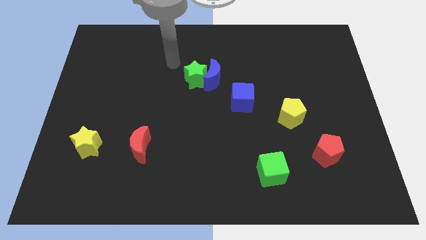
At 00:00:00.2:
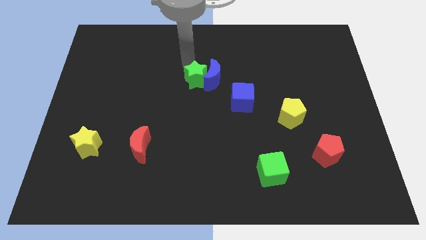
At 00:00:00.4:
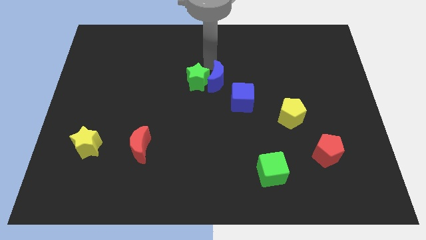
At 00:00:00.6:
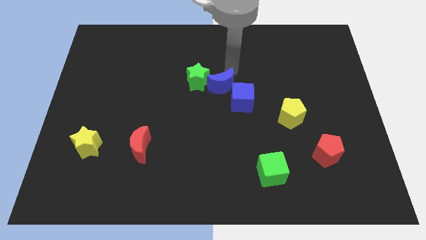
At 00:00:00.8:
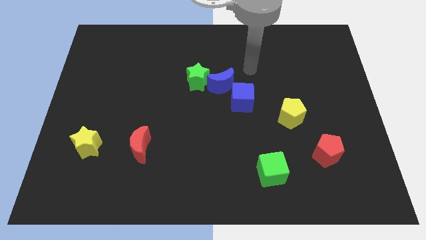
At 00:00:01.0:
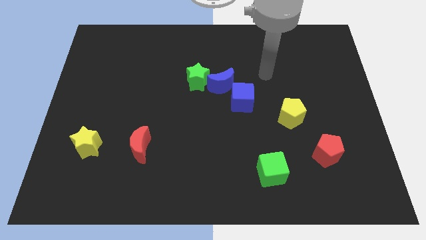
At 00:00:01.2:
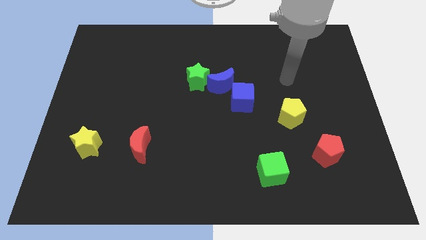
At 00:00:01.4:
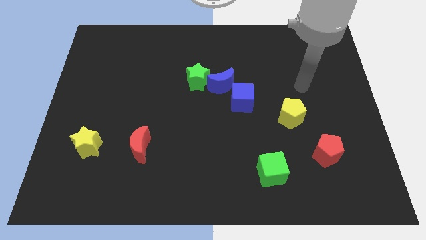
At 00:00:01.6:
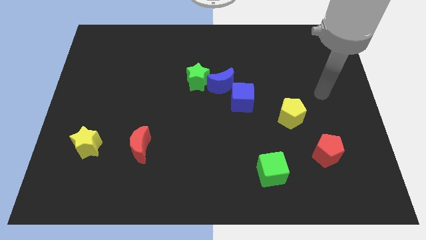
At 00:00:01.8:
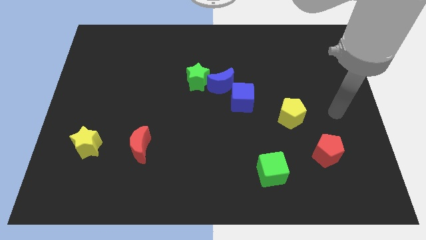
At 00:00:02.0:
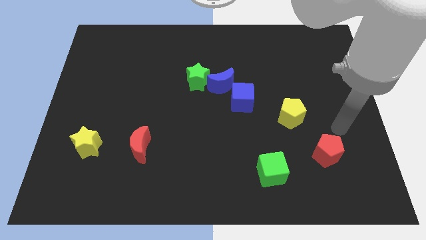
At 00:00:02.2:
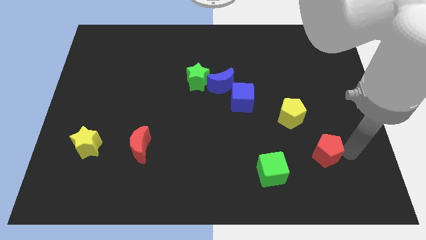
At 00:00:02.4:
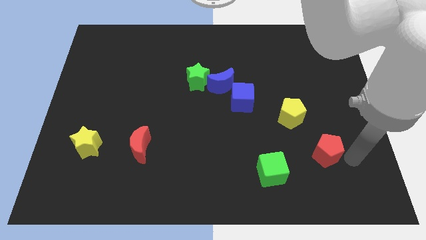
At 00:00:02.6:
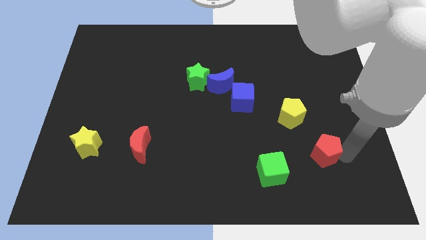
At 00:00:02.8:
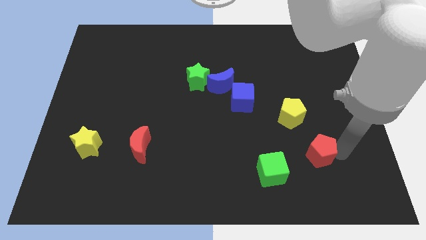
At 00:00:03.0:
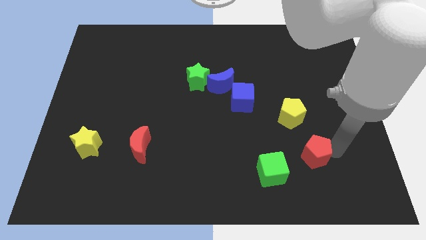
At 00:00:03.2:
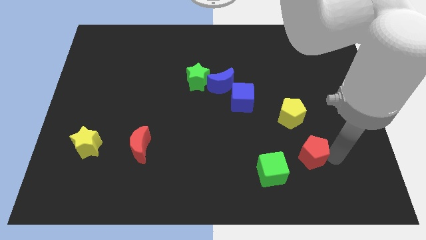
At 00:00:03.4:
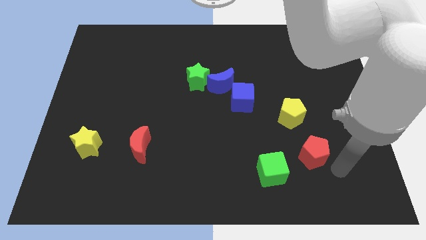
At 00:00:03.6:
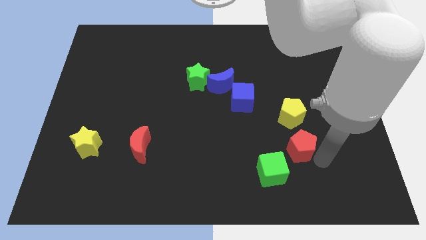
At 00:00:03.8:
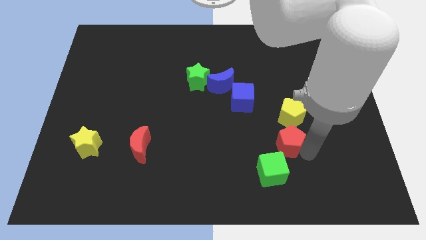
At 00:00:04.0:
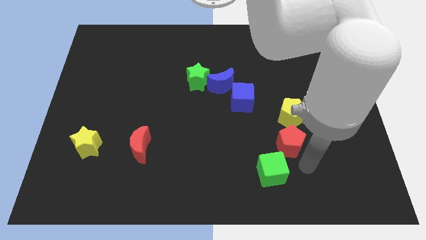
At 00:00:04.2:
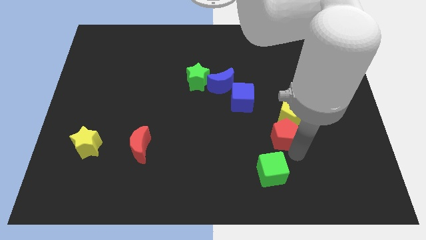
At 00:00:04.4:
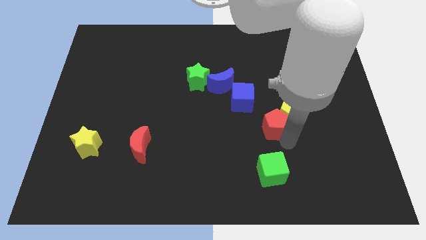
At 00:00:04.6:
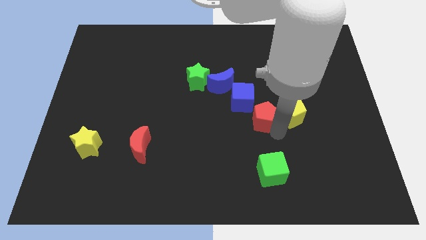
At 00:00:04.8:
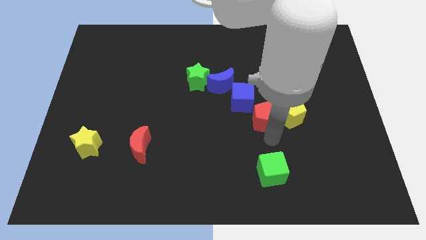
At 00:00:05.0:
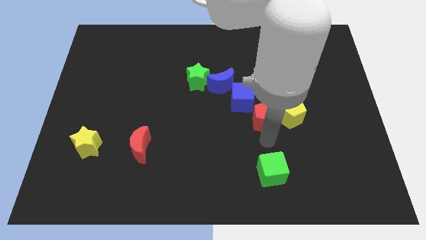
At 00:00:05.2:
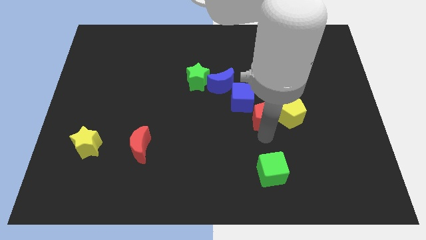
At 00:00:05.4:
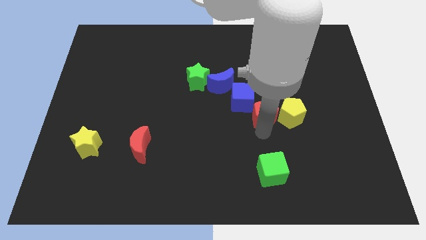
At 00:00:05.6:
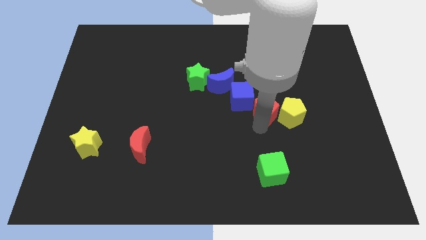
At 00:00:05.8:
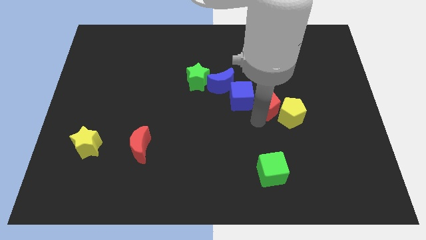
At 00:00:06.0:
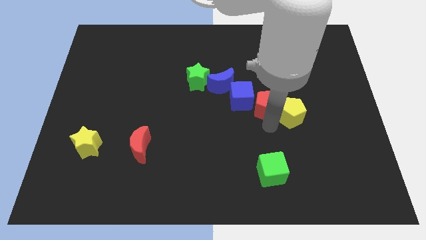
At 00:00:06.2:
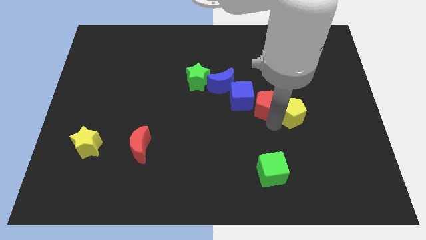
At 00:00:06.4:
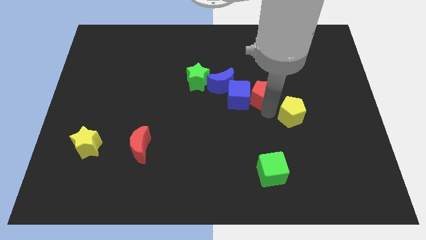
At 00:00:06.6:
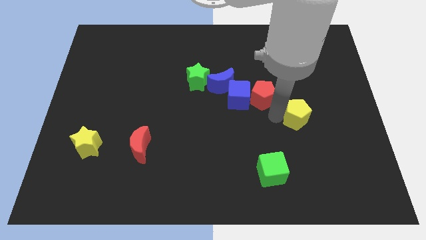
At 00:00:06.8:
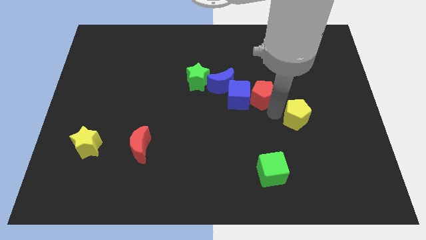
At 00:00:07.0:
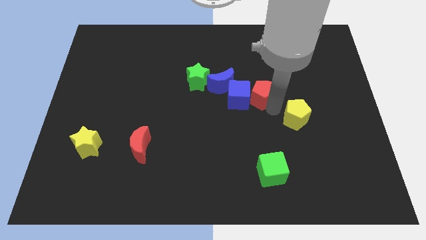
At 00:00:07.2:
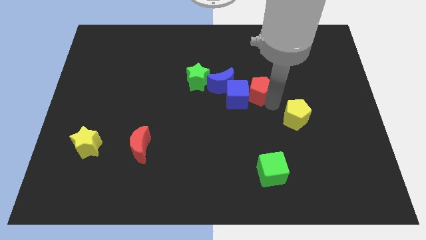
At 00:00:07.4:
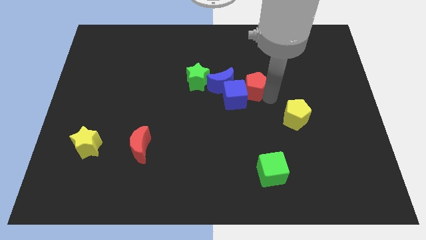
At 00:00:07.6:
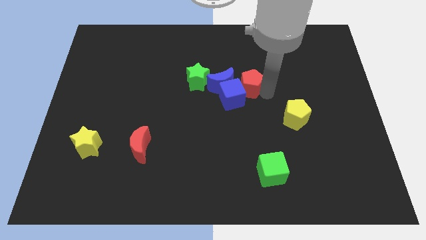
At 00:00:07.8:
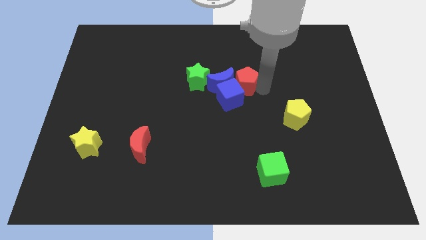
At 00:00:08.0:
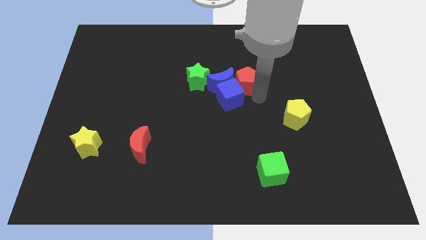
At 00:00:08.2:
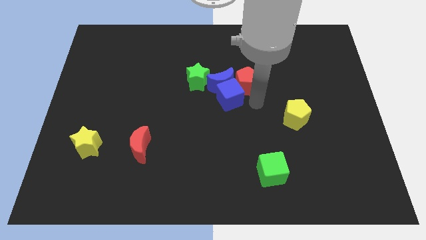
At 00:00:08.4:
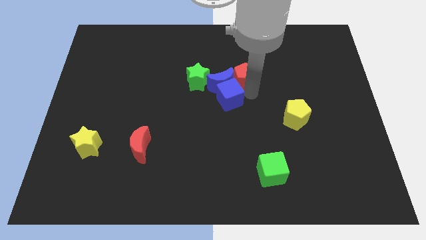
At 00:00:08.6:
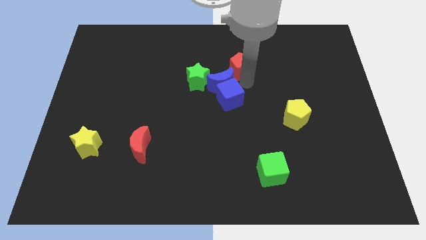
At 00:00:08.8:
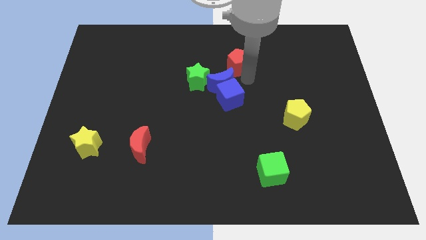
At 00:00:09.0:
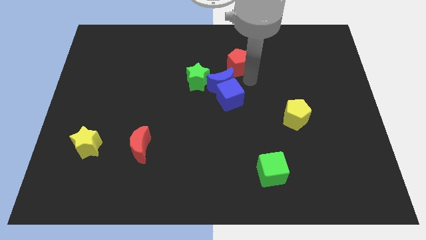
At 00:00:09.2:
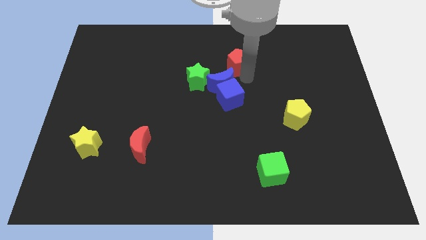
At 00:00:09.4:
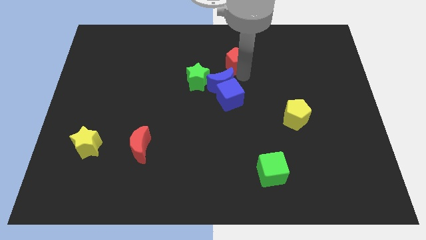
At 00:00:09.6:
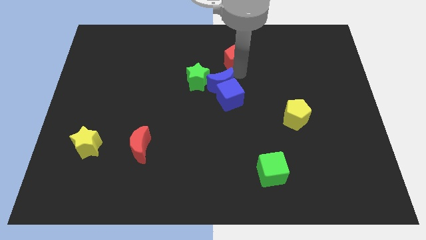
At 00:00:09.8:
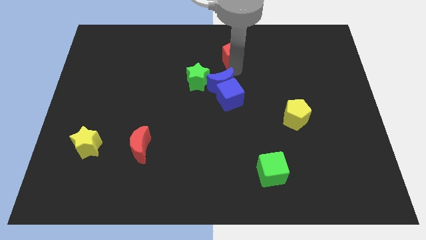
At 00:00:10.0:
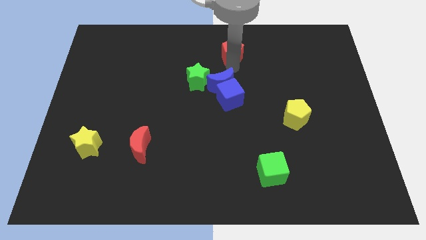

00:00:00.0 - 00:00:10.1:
put the red pentagon to the top

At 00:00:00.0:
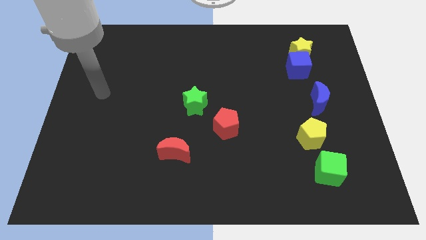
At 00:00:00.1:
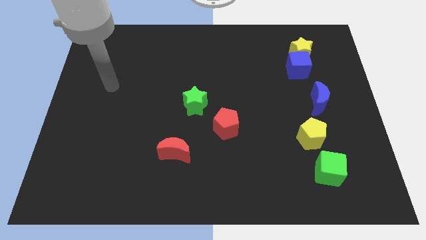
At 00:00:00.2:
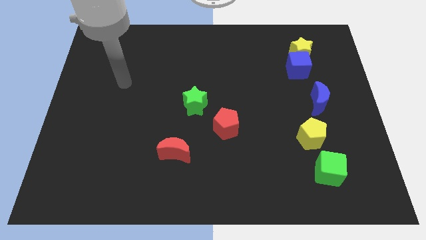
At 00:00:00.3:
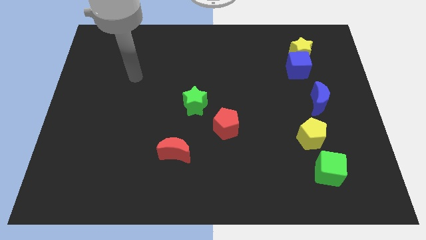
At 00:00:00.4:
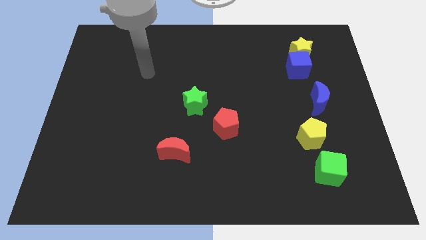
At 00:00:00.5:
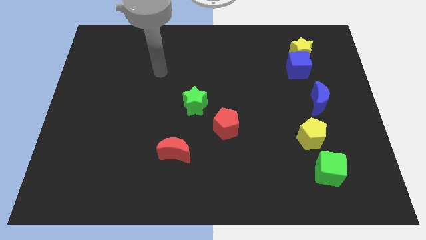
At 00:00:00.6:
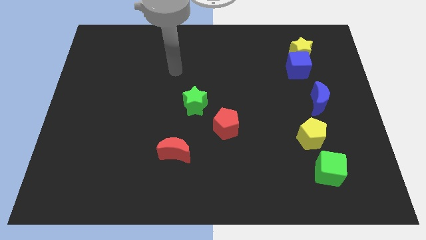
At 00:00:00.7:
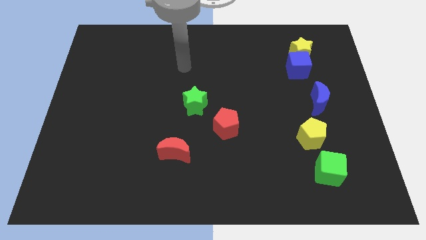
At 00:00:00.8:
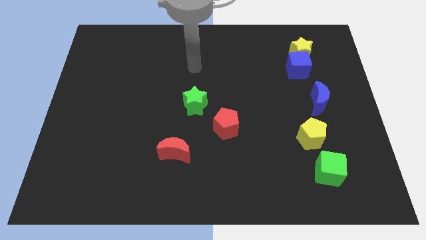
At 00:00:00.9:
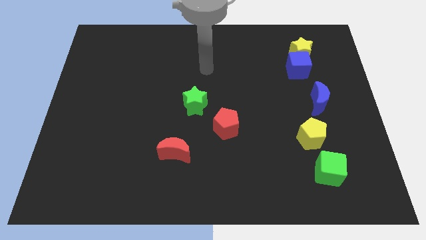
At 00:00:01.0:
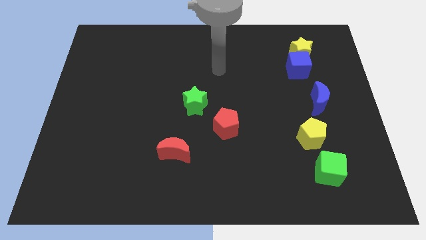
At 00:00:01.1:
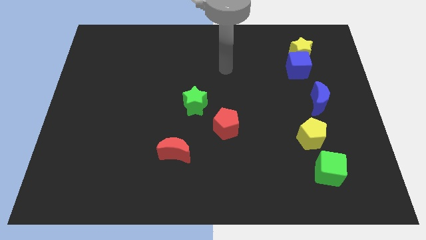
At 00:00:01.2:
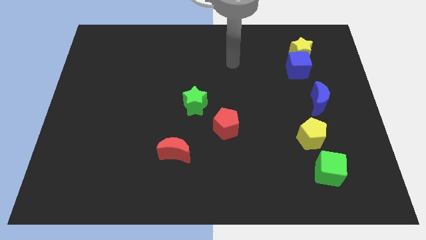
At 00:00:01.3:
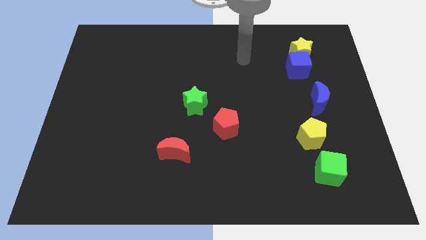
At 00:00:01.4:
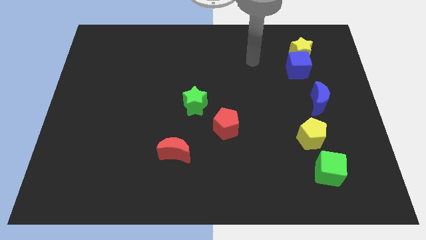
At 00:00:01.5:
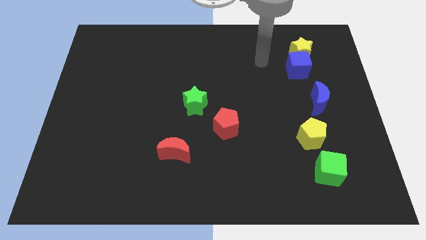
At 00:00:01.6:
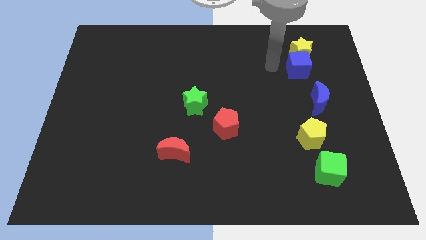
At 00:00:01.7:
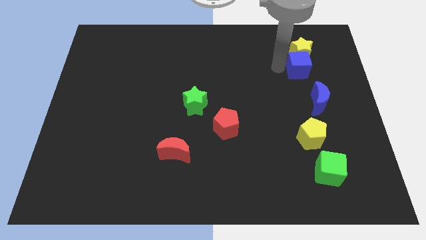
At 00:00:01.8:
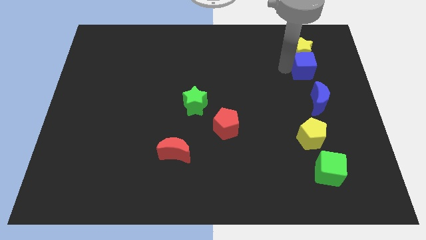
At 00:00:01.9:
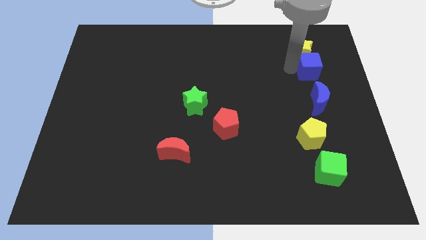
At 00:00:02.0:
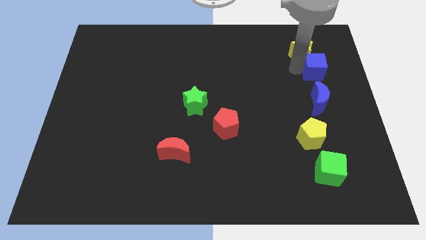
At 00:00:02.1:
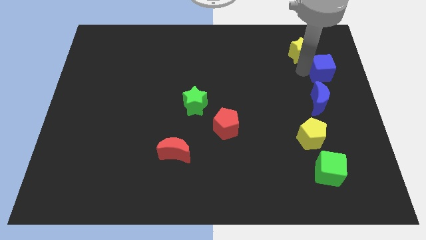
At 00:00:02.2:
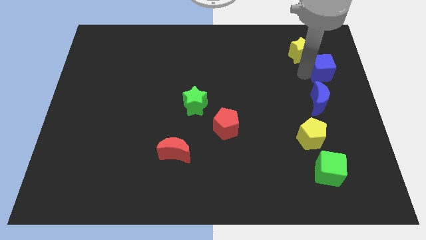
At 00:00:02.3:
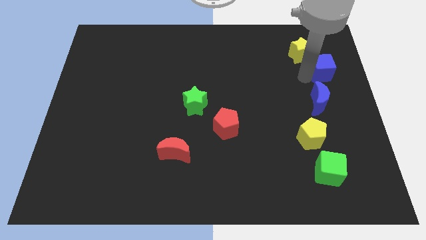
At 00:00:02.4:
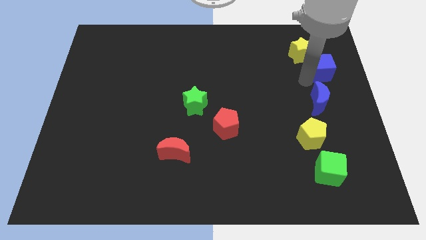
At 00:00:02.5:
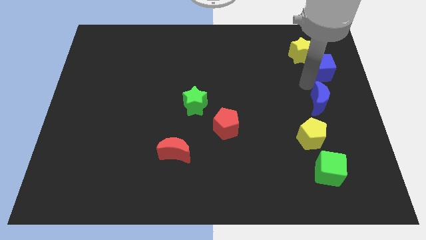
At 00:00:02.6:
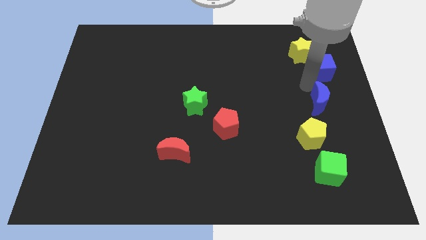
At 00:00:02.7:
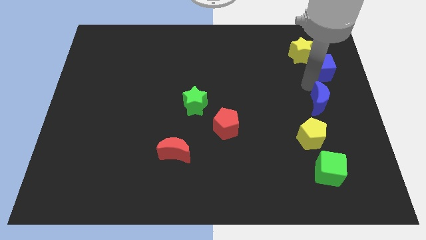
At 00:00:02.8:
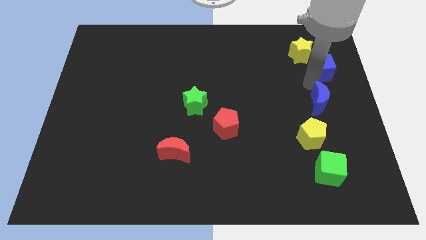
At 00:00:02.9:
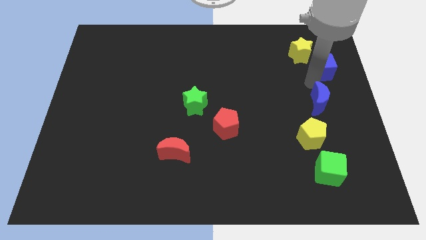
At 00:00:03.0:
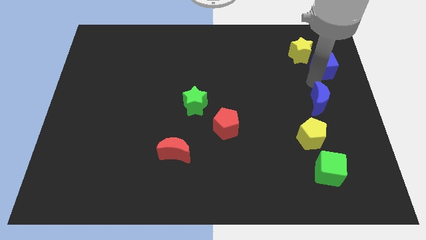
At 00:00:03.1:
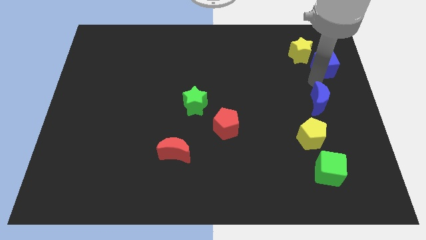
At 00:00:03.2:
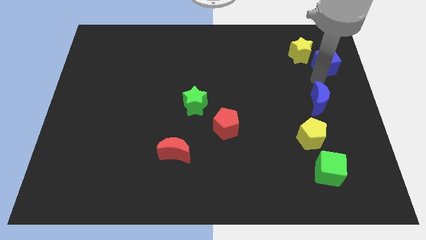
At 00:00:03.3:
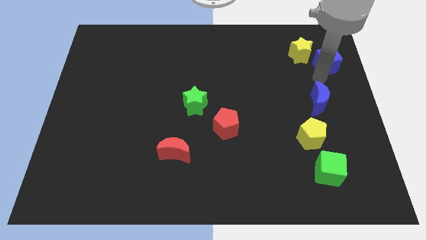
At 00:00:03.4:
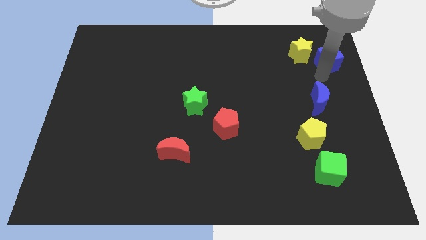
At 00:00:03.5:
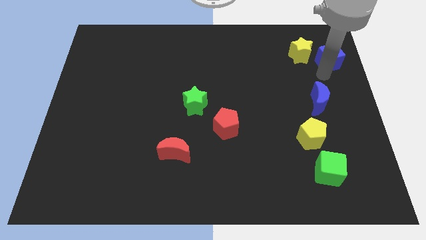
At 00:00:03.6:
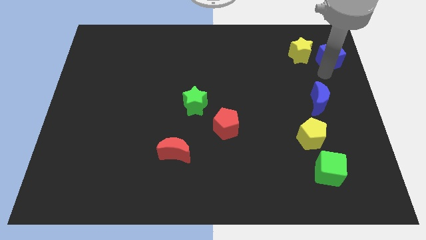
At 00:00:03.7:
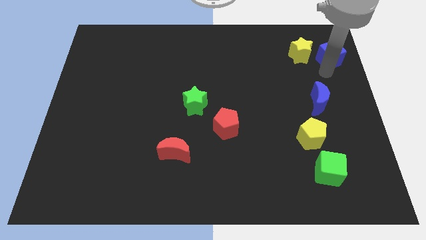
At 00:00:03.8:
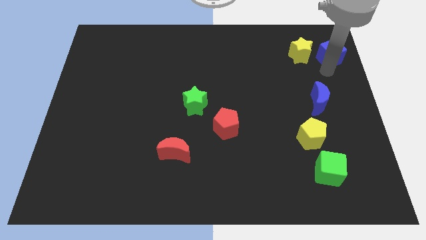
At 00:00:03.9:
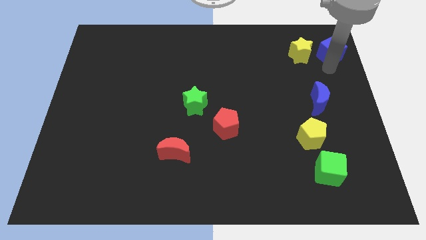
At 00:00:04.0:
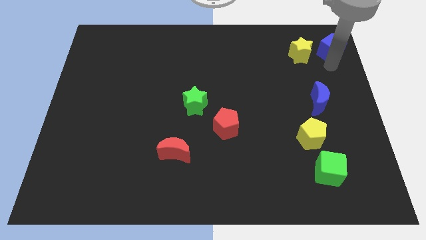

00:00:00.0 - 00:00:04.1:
push the blue cube to the top right
